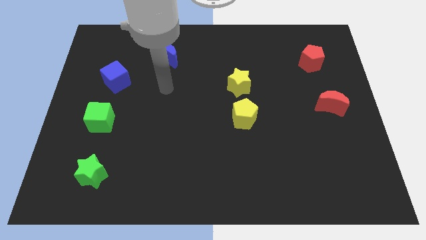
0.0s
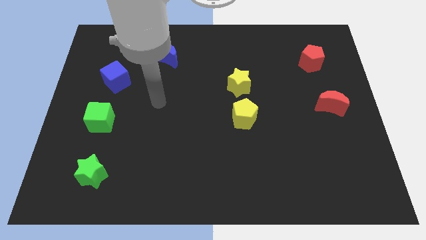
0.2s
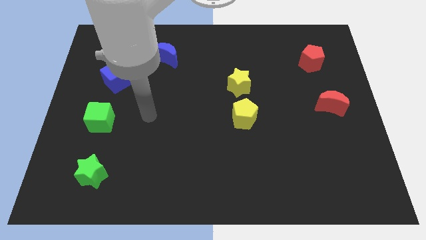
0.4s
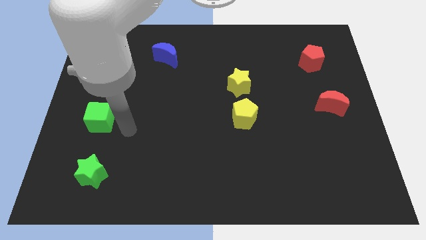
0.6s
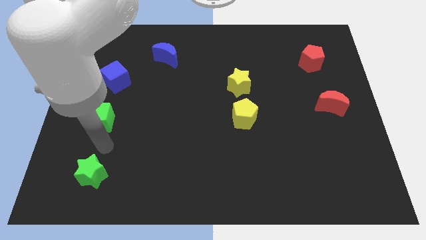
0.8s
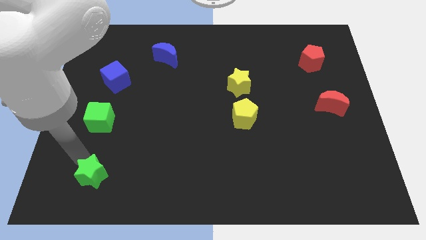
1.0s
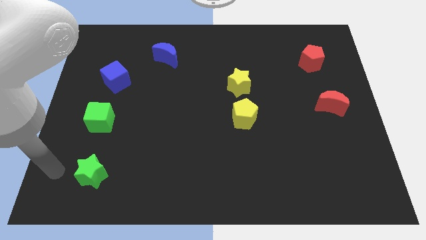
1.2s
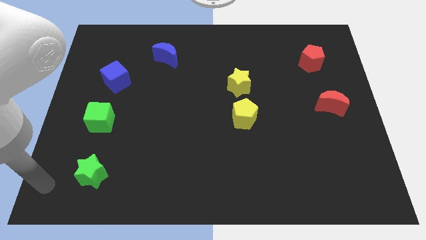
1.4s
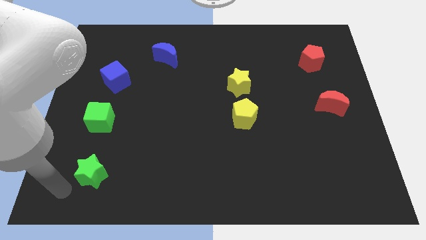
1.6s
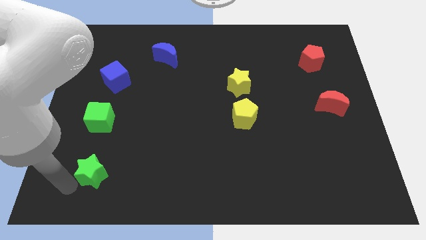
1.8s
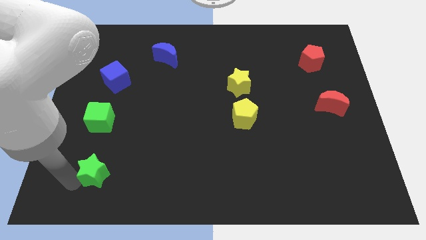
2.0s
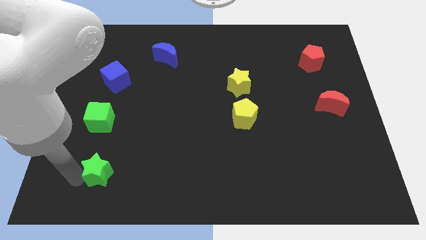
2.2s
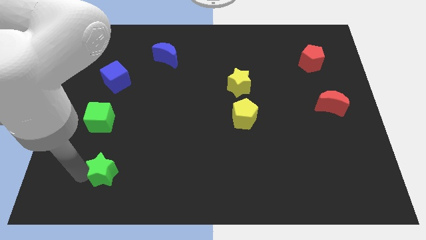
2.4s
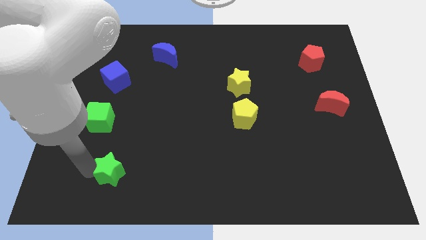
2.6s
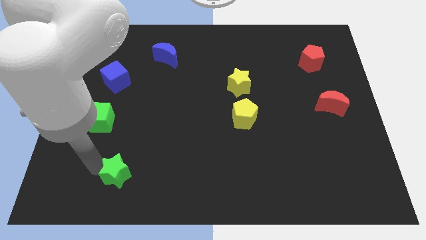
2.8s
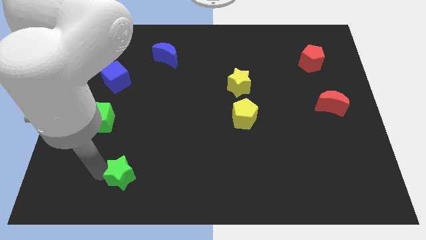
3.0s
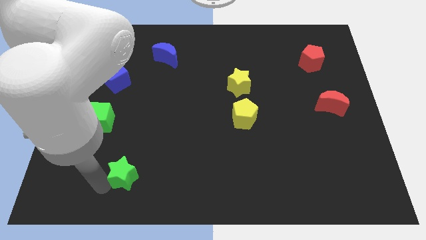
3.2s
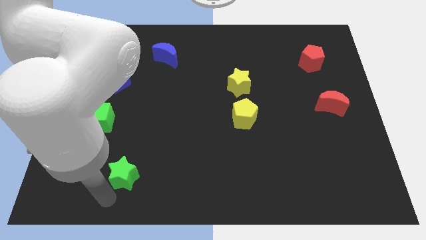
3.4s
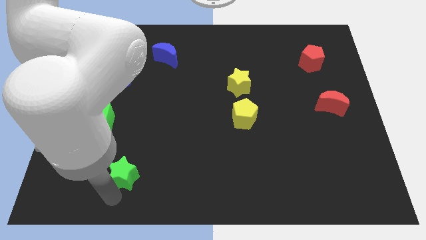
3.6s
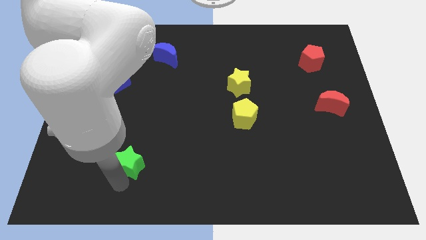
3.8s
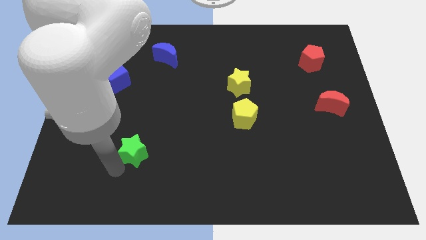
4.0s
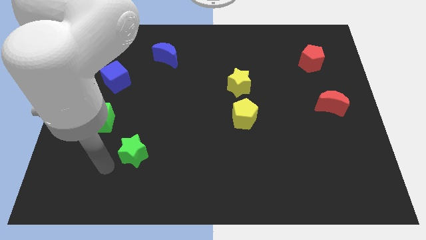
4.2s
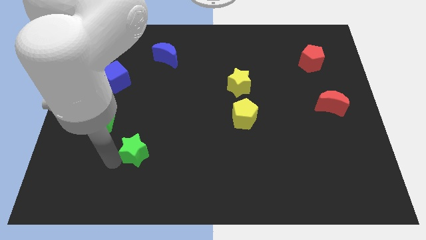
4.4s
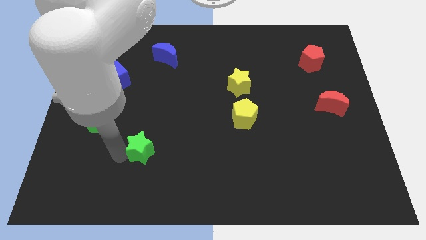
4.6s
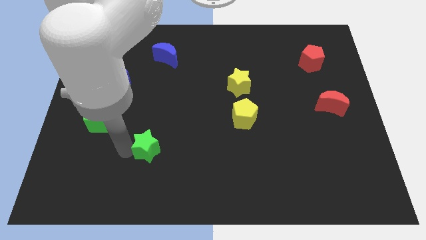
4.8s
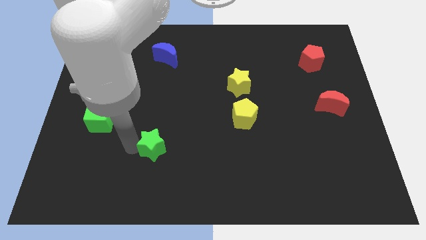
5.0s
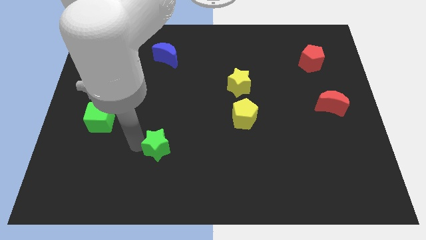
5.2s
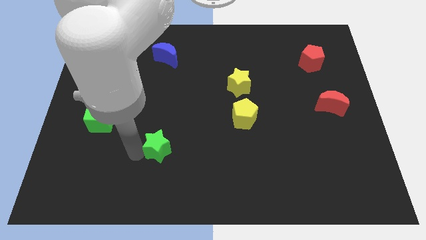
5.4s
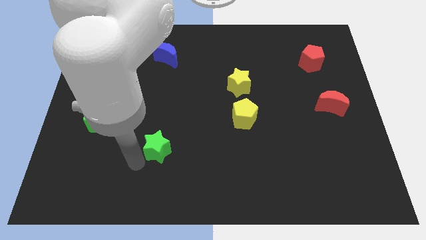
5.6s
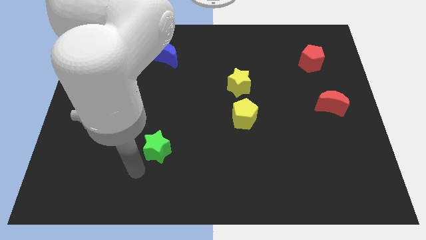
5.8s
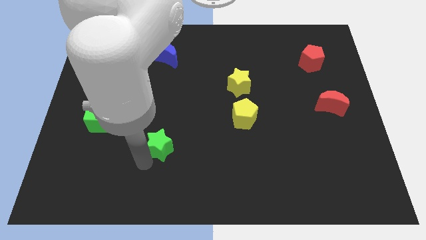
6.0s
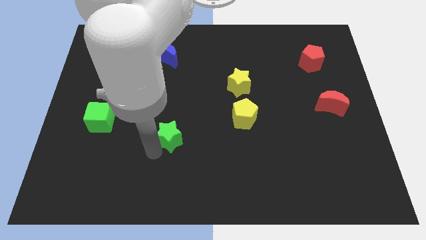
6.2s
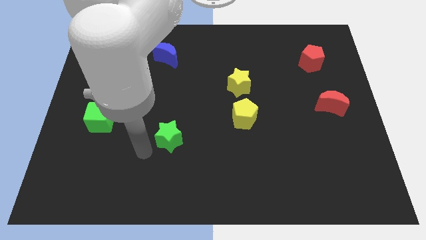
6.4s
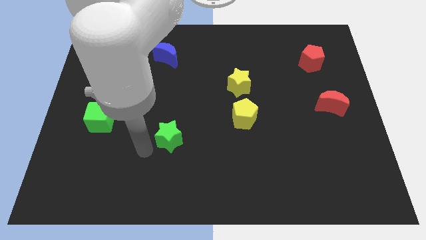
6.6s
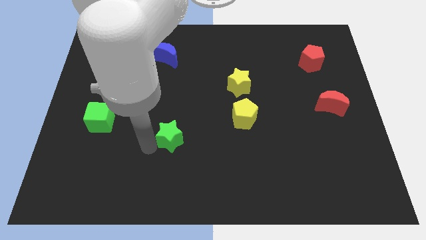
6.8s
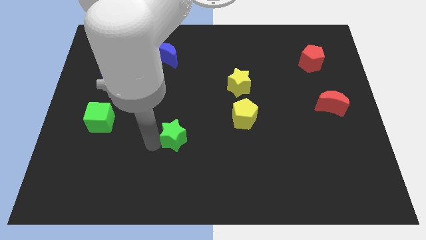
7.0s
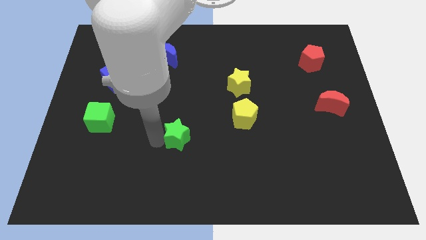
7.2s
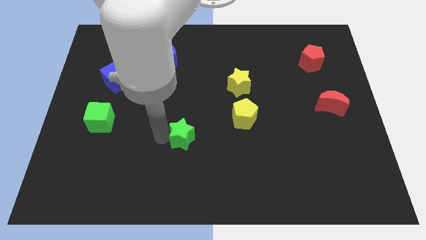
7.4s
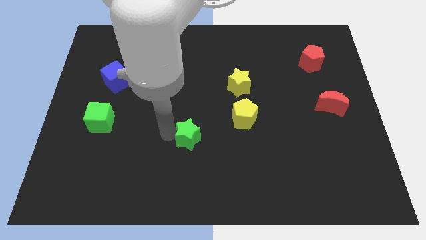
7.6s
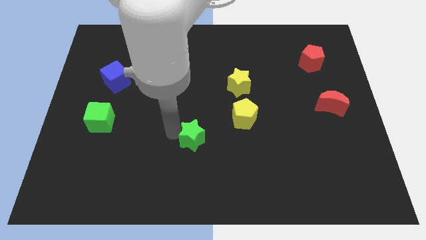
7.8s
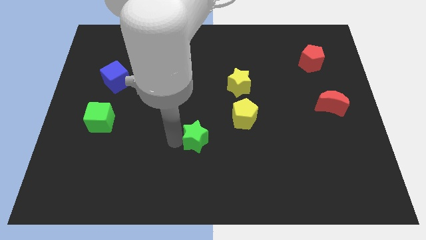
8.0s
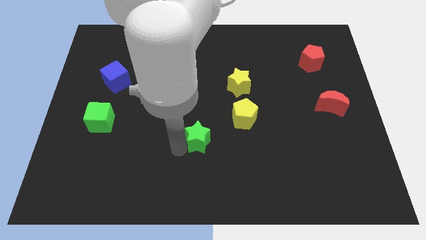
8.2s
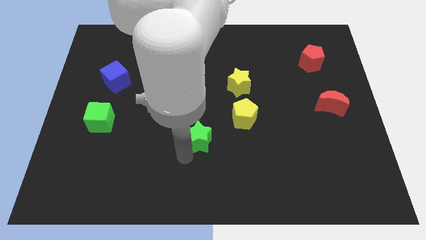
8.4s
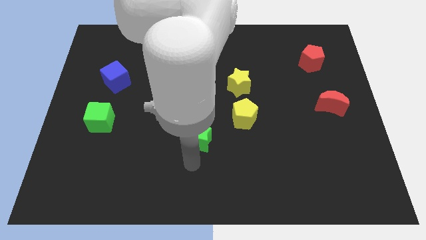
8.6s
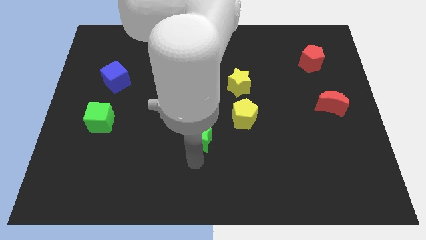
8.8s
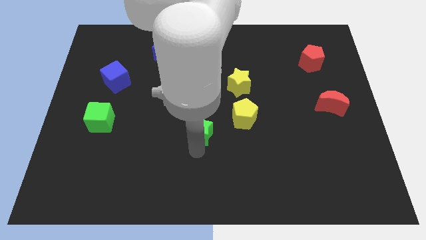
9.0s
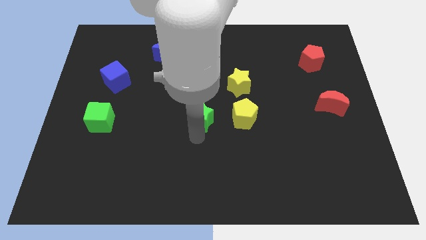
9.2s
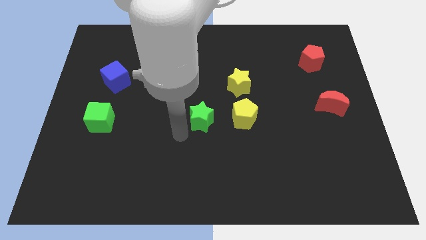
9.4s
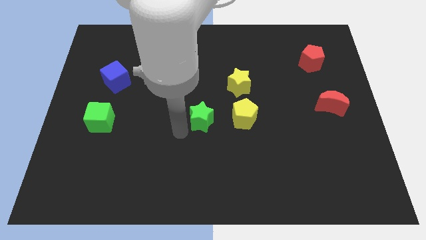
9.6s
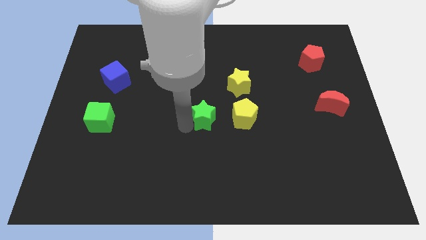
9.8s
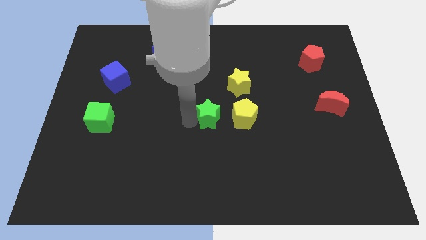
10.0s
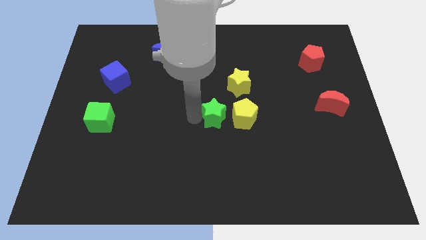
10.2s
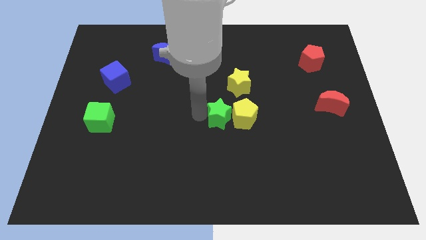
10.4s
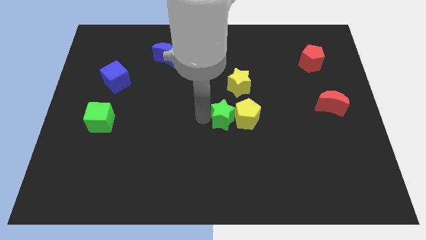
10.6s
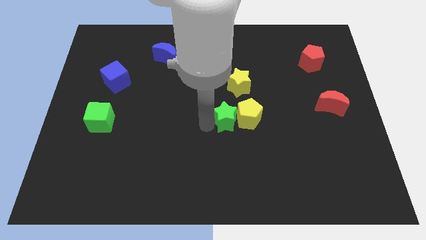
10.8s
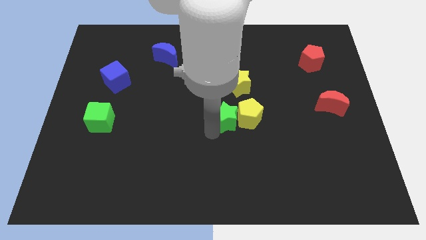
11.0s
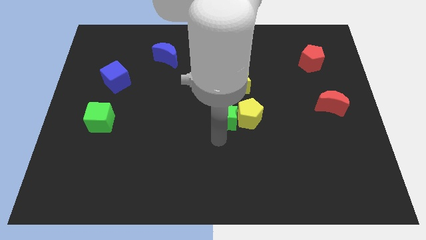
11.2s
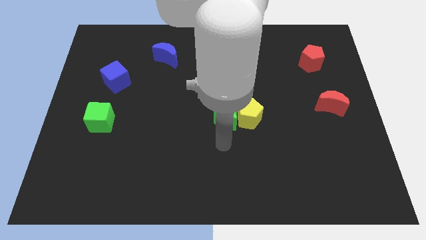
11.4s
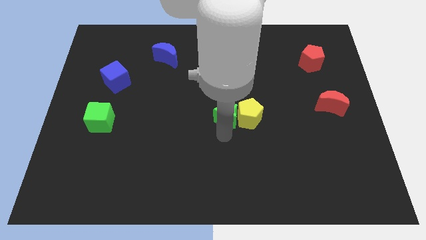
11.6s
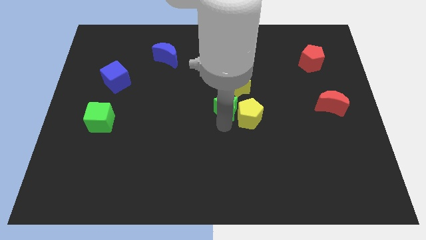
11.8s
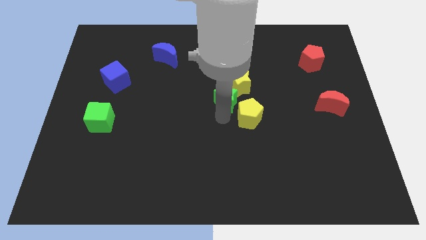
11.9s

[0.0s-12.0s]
push the green star to the yellow star

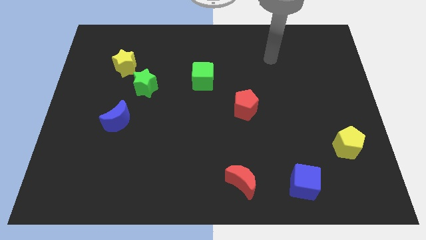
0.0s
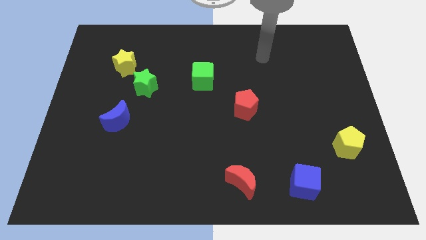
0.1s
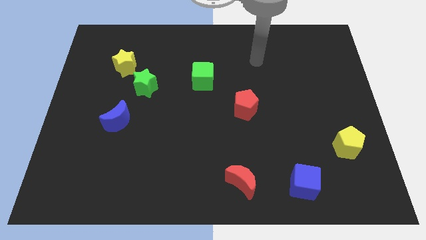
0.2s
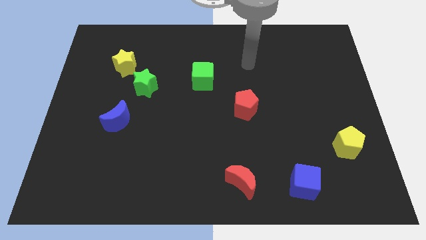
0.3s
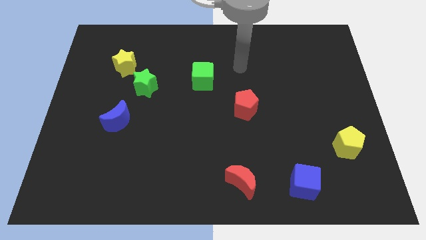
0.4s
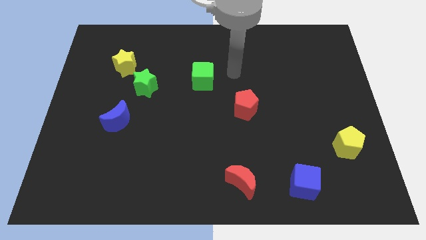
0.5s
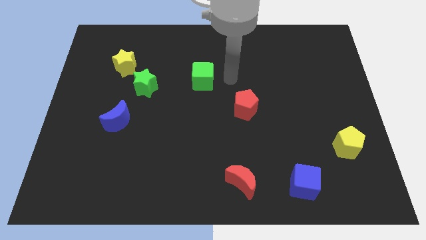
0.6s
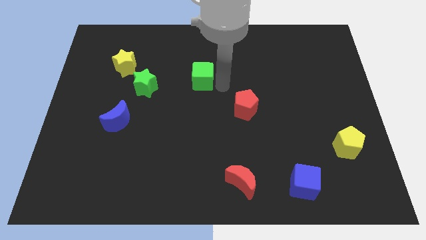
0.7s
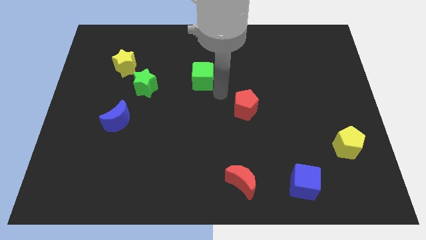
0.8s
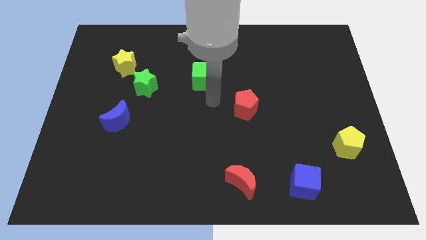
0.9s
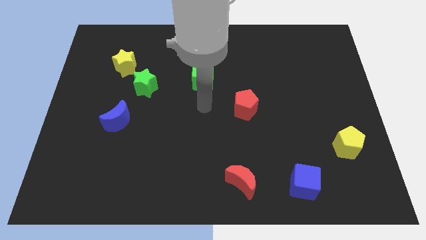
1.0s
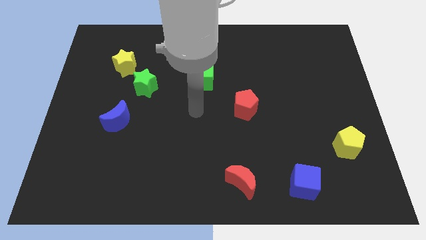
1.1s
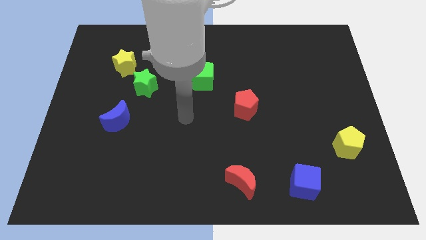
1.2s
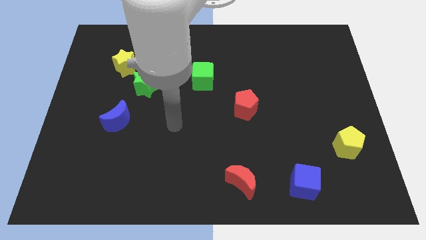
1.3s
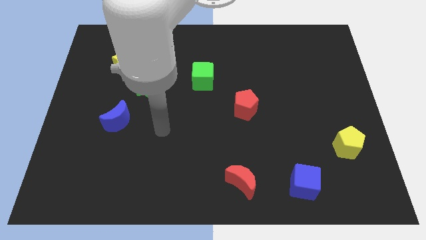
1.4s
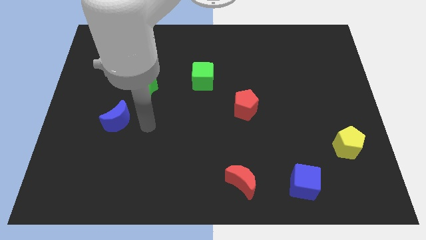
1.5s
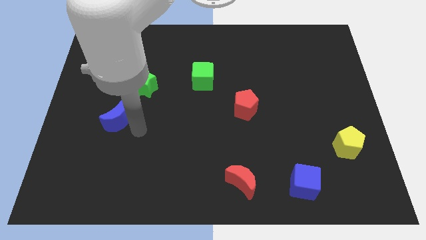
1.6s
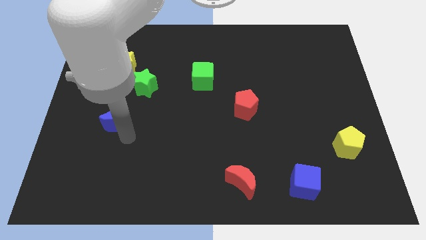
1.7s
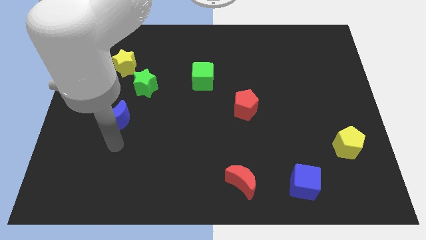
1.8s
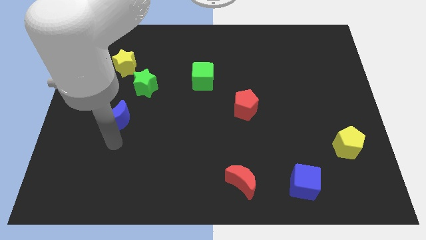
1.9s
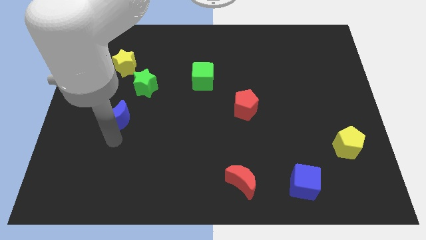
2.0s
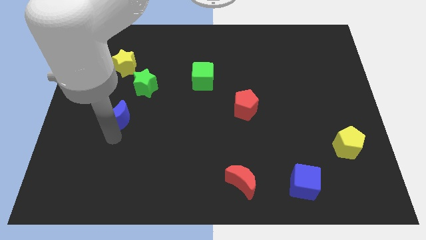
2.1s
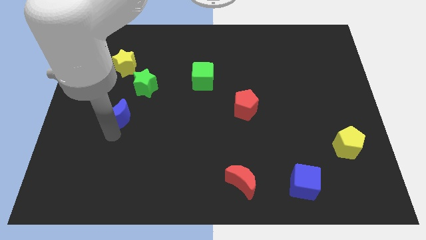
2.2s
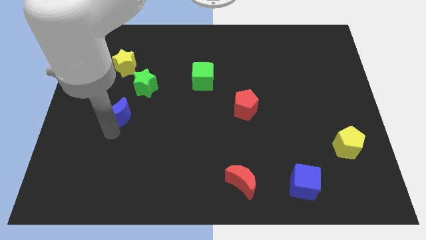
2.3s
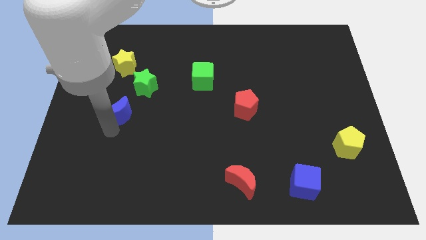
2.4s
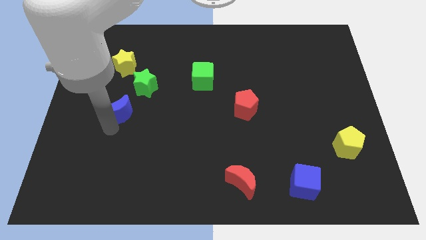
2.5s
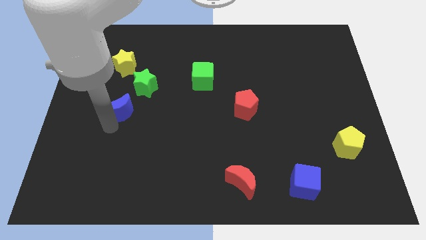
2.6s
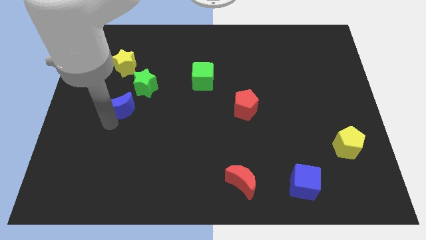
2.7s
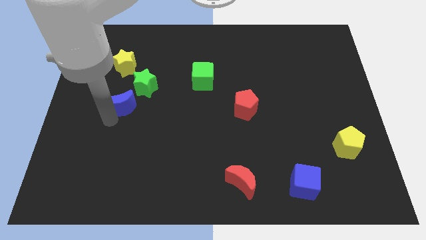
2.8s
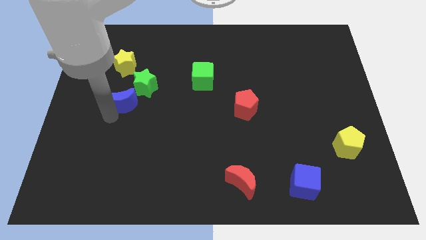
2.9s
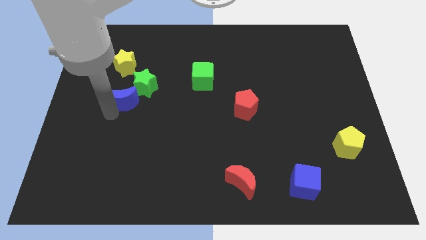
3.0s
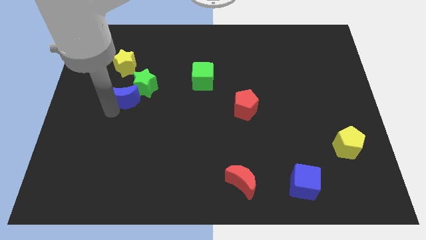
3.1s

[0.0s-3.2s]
push the blue moon close to the green star
